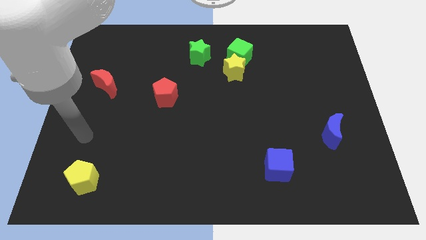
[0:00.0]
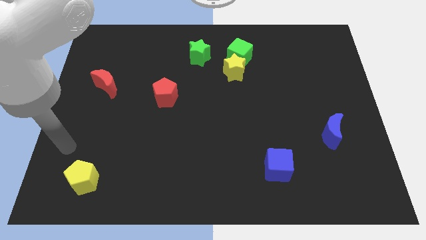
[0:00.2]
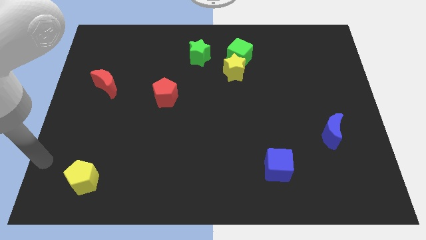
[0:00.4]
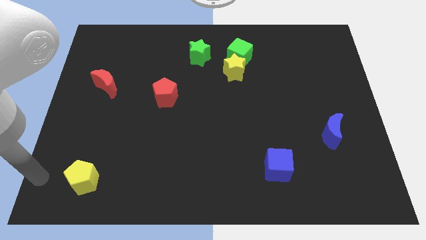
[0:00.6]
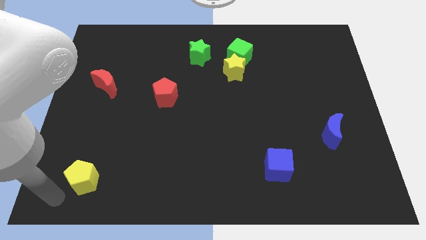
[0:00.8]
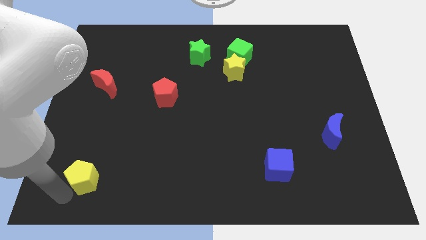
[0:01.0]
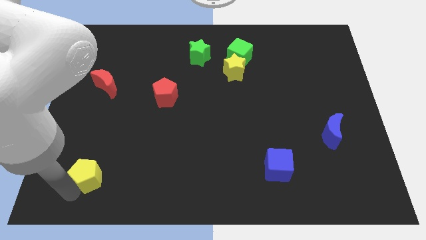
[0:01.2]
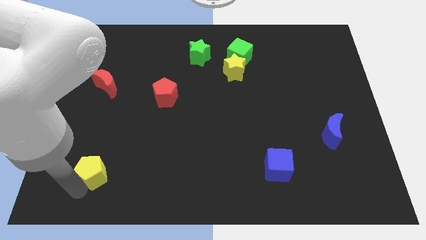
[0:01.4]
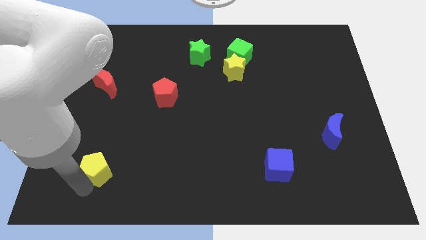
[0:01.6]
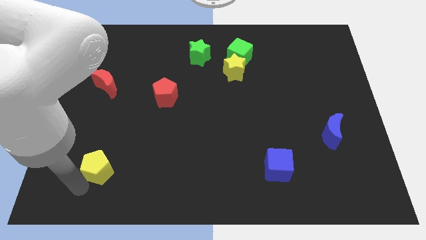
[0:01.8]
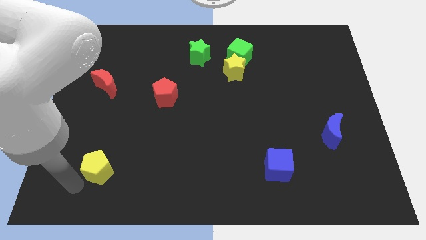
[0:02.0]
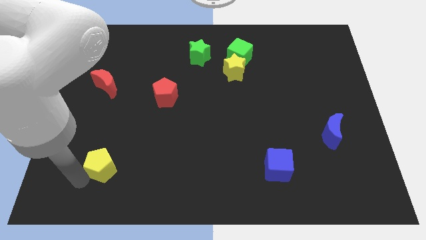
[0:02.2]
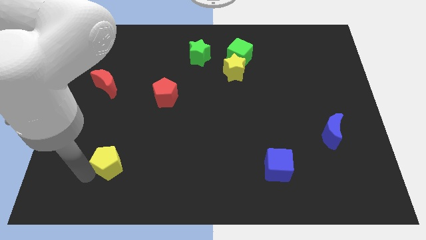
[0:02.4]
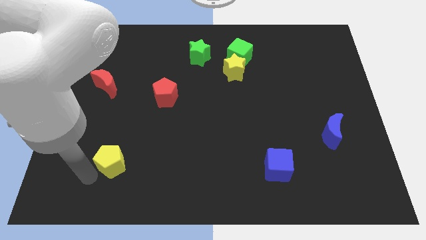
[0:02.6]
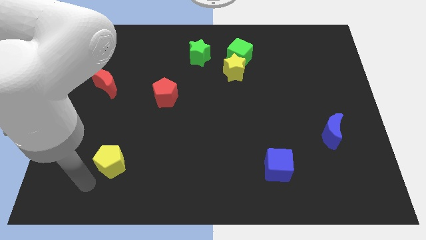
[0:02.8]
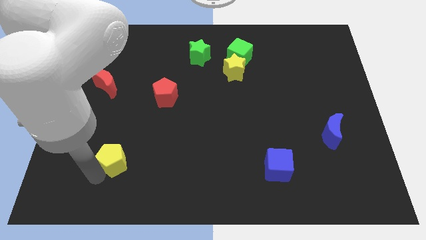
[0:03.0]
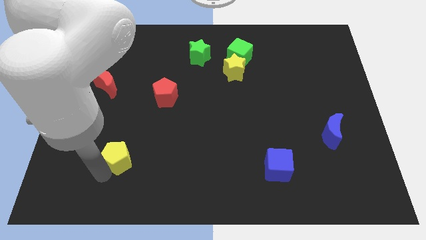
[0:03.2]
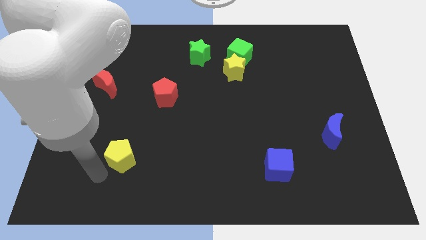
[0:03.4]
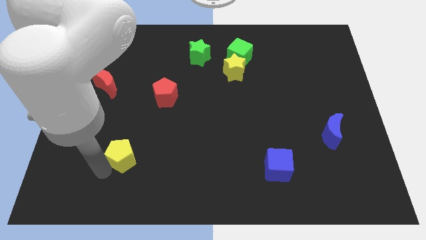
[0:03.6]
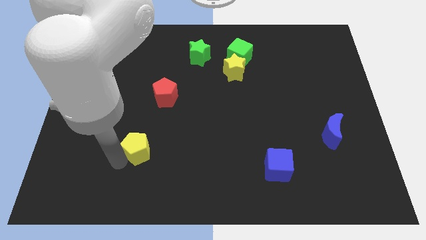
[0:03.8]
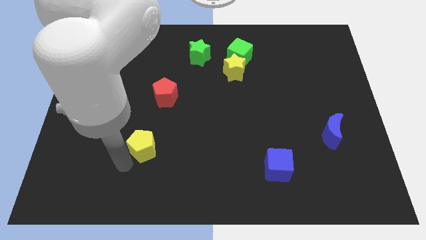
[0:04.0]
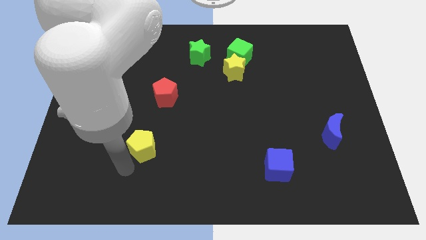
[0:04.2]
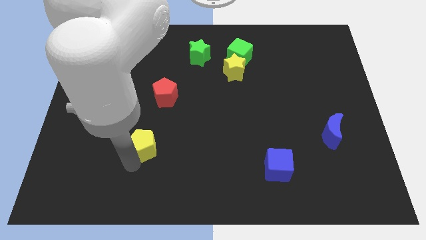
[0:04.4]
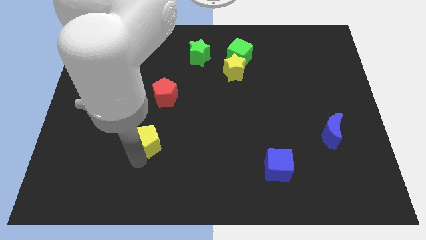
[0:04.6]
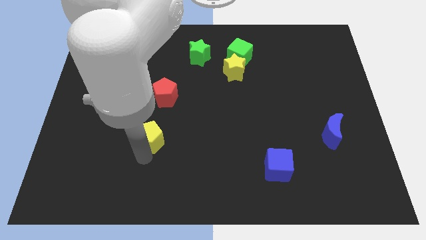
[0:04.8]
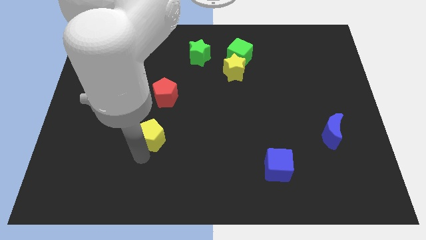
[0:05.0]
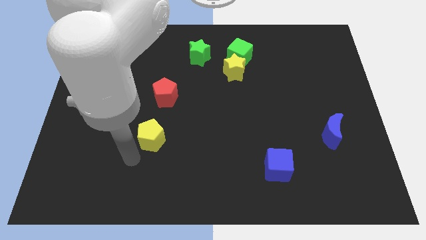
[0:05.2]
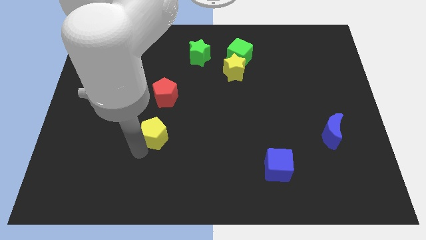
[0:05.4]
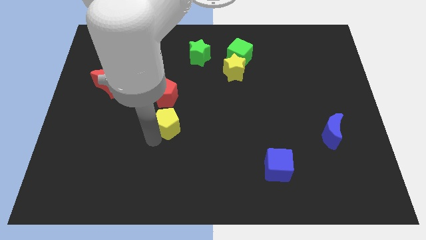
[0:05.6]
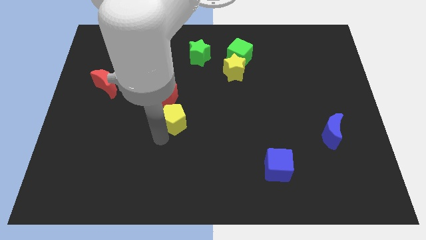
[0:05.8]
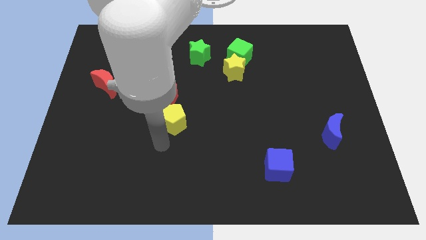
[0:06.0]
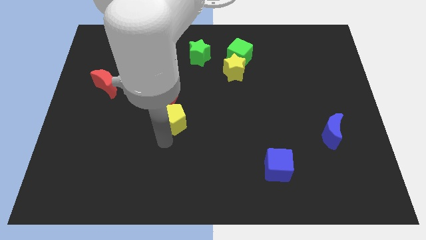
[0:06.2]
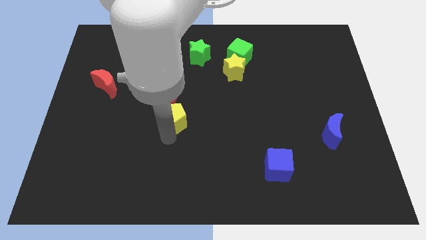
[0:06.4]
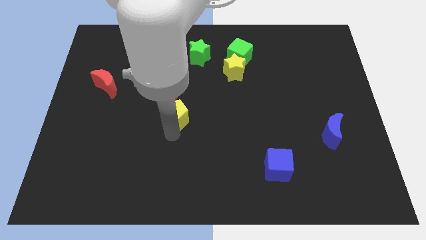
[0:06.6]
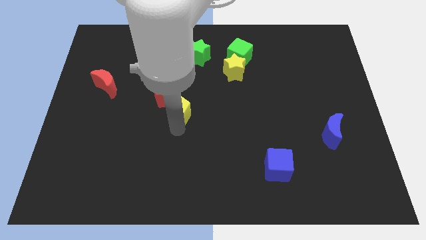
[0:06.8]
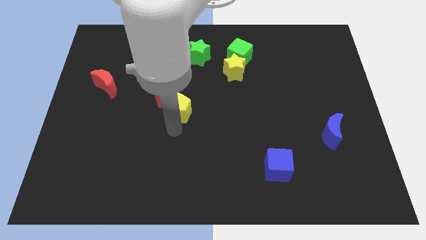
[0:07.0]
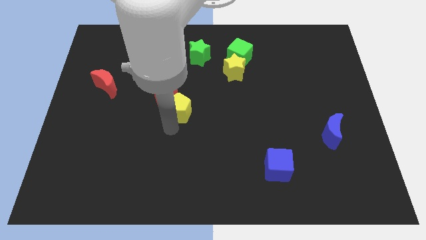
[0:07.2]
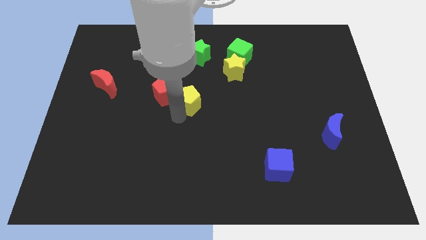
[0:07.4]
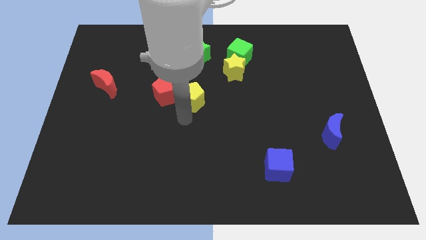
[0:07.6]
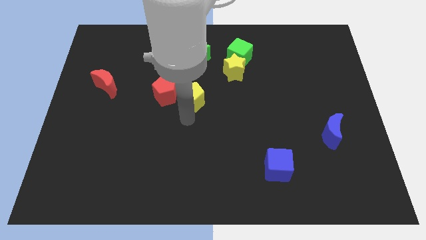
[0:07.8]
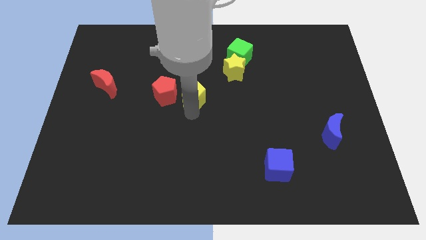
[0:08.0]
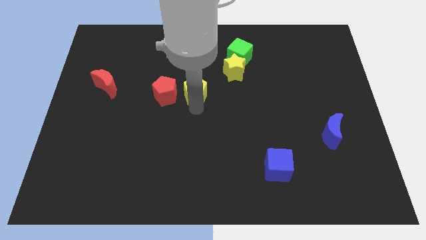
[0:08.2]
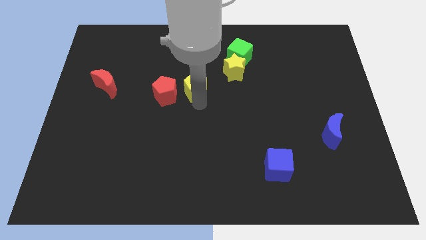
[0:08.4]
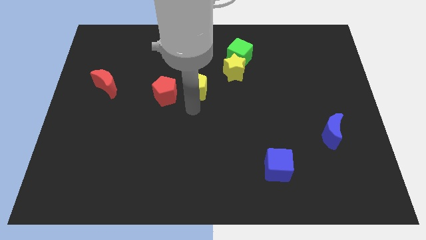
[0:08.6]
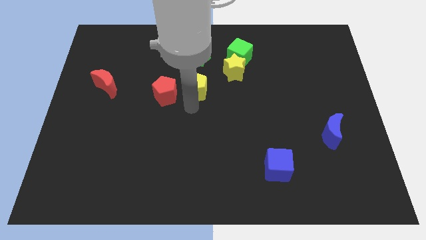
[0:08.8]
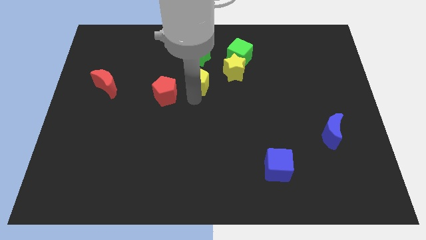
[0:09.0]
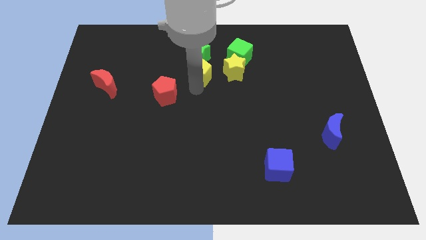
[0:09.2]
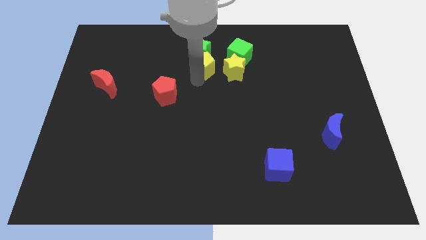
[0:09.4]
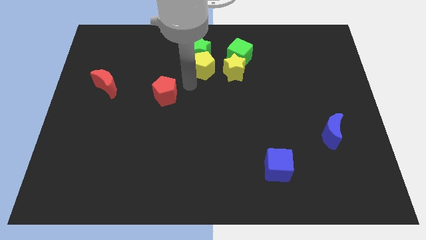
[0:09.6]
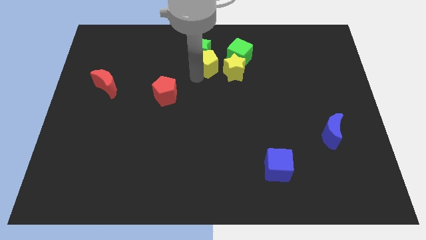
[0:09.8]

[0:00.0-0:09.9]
put the yellow pentagon to the top left side of the yellow star

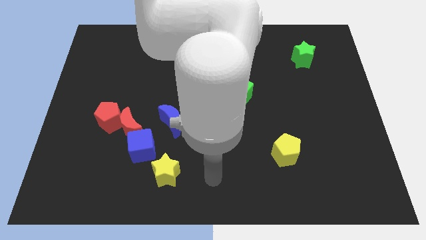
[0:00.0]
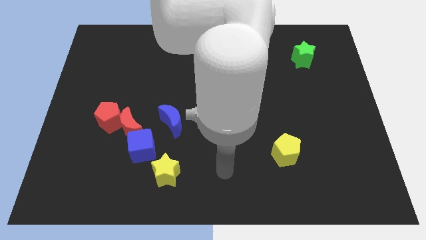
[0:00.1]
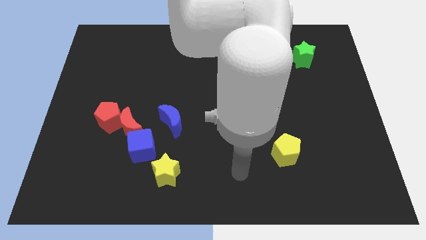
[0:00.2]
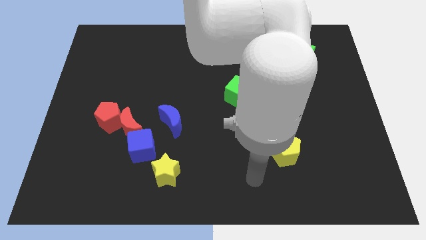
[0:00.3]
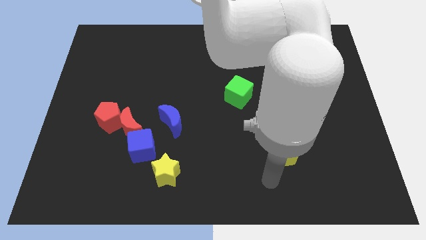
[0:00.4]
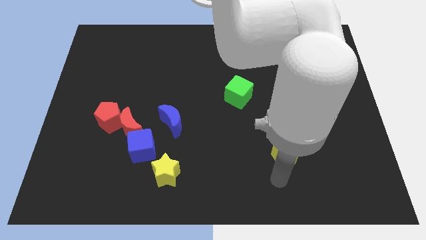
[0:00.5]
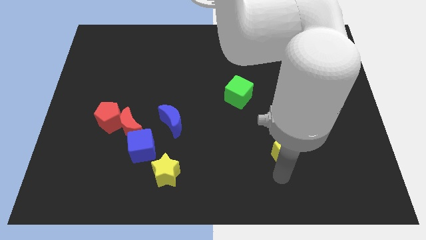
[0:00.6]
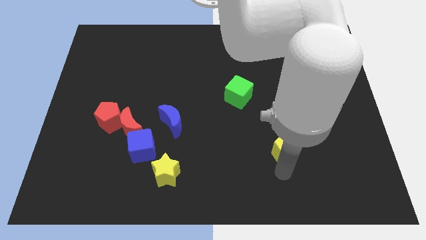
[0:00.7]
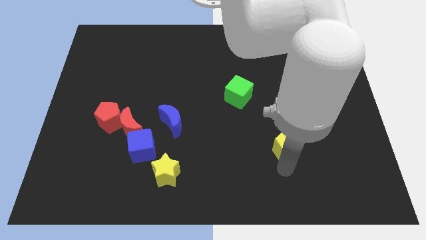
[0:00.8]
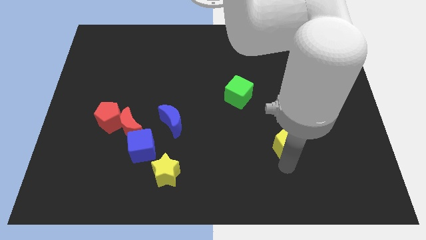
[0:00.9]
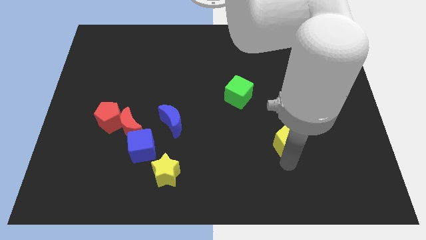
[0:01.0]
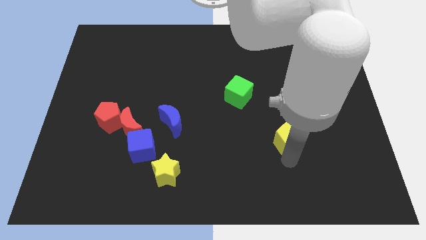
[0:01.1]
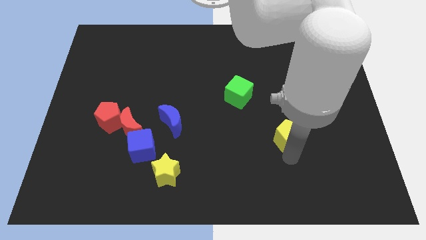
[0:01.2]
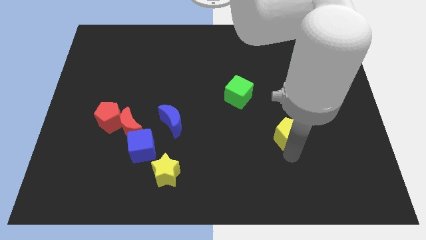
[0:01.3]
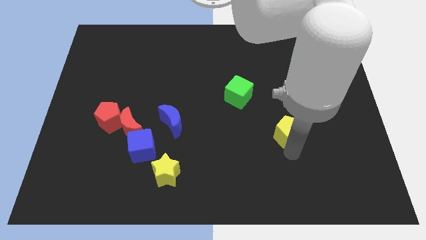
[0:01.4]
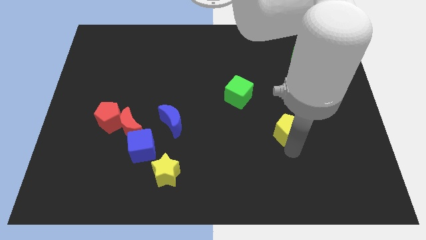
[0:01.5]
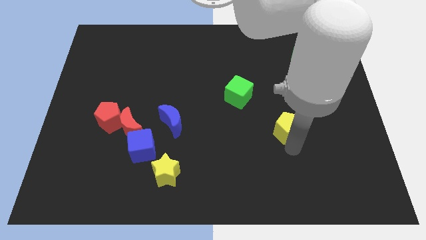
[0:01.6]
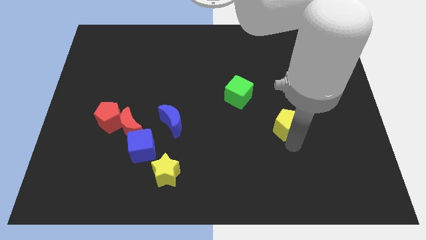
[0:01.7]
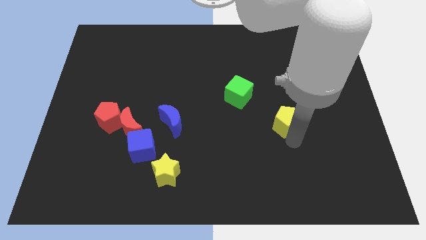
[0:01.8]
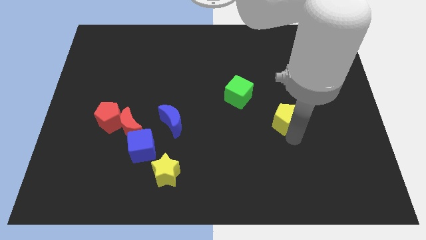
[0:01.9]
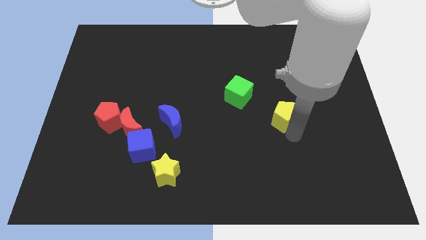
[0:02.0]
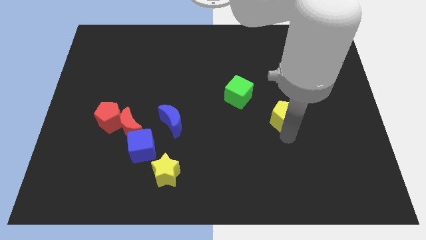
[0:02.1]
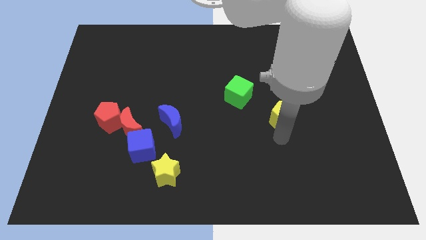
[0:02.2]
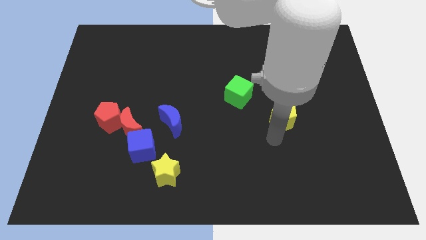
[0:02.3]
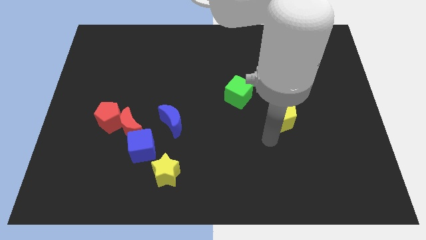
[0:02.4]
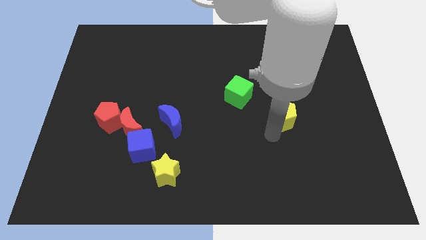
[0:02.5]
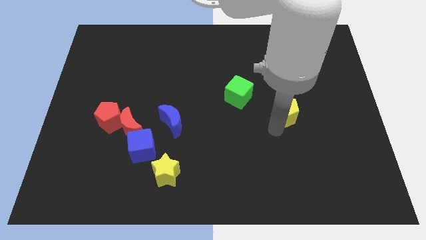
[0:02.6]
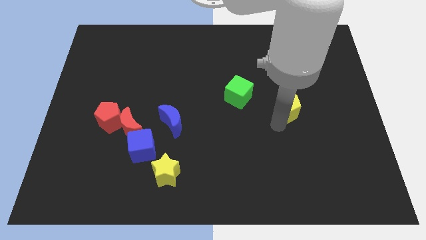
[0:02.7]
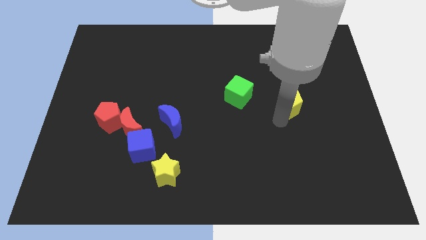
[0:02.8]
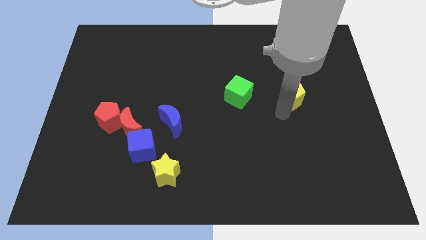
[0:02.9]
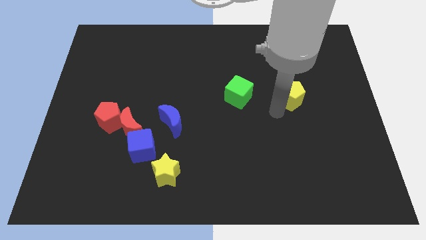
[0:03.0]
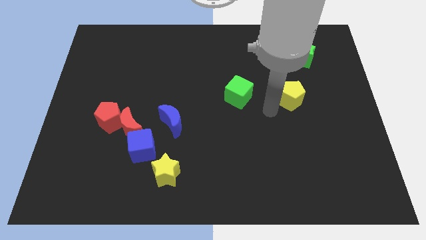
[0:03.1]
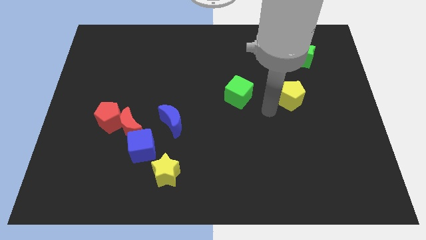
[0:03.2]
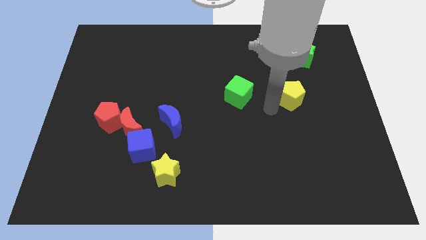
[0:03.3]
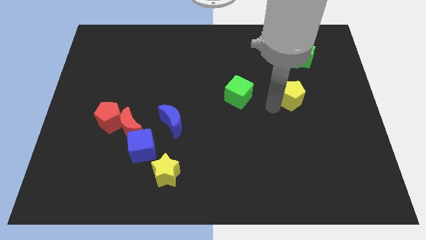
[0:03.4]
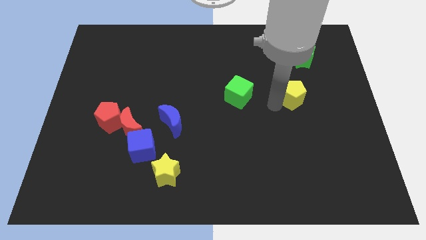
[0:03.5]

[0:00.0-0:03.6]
slide the yellow pentagon below the green star
